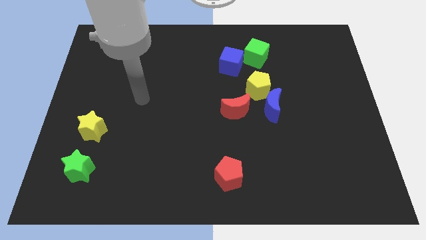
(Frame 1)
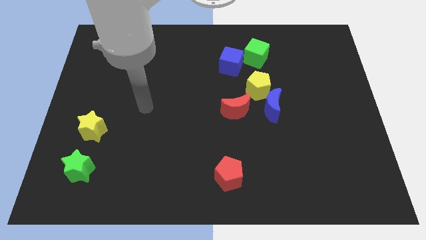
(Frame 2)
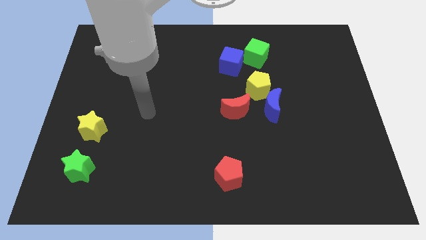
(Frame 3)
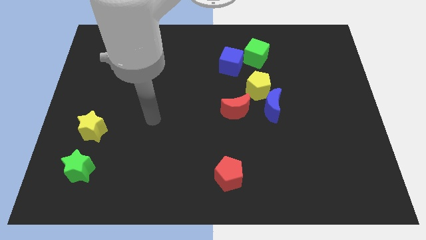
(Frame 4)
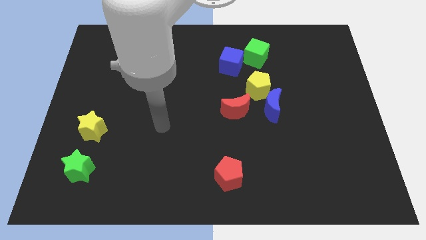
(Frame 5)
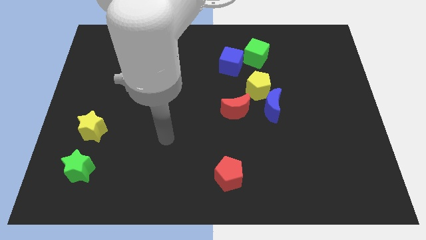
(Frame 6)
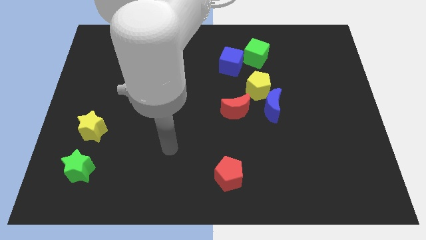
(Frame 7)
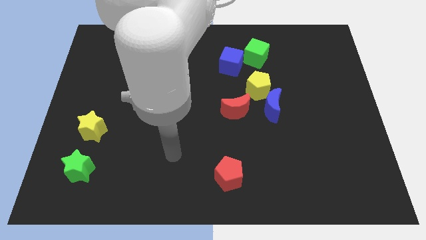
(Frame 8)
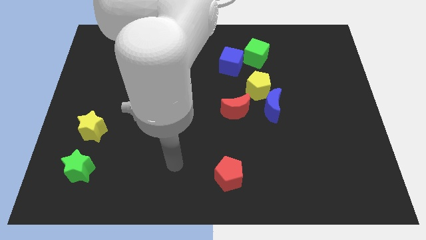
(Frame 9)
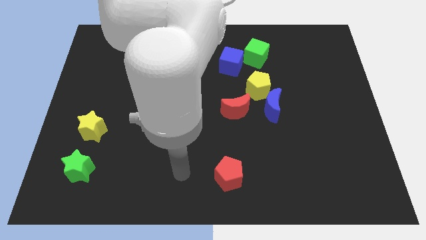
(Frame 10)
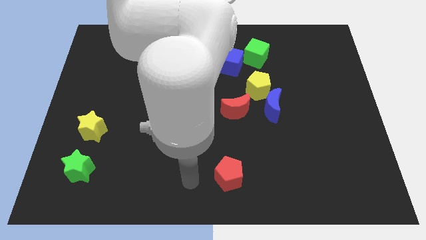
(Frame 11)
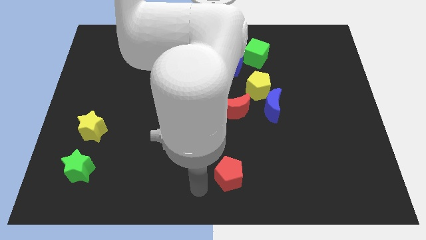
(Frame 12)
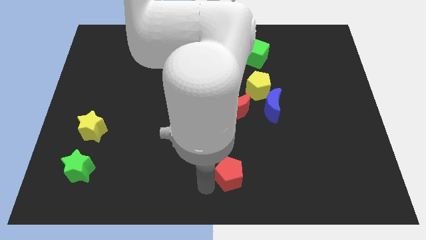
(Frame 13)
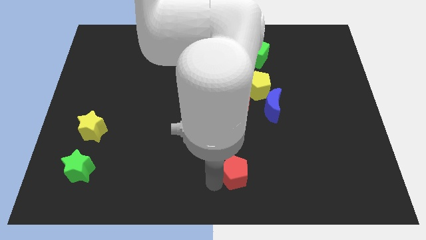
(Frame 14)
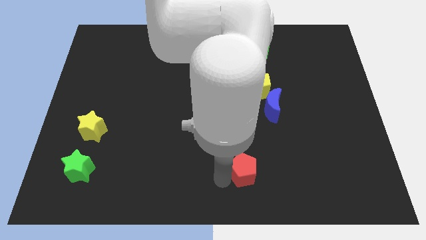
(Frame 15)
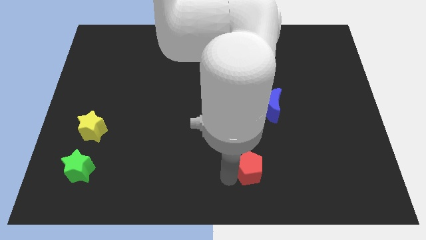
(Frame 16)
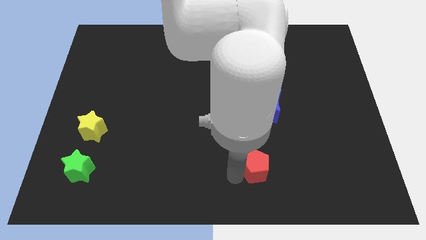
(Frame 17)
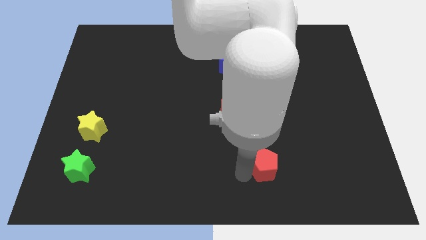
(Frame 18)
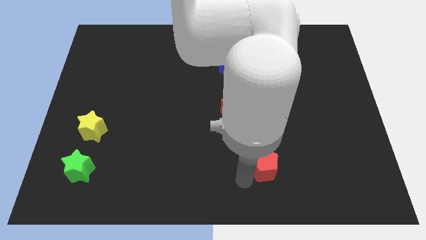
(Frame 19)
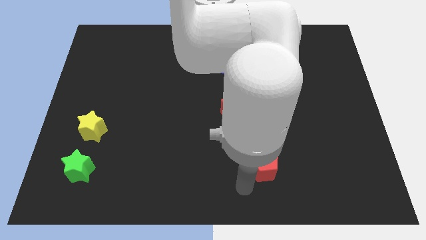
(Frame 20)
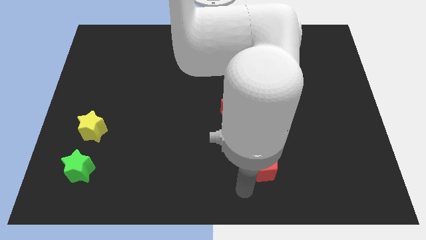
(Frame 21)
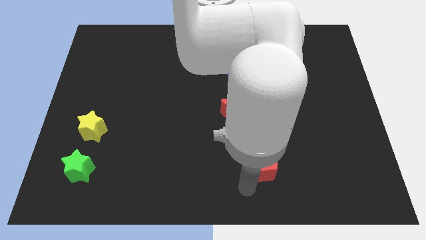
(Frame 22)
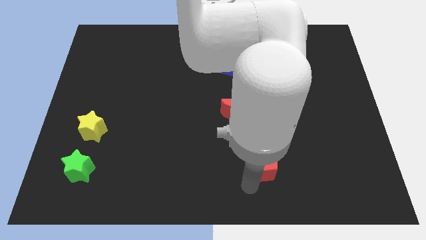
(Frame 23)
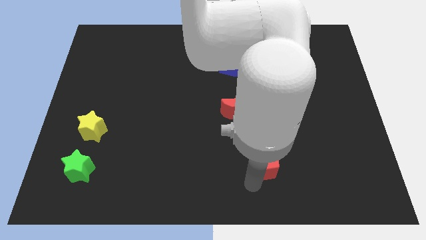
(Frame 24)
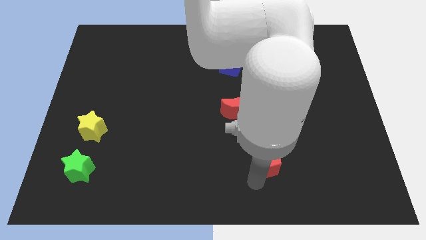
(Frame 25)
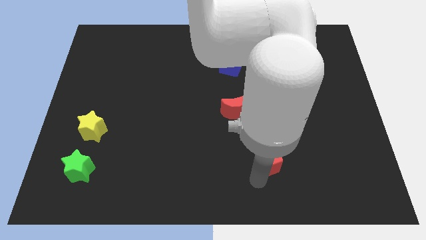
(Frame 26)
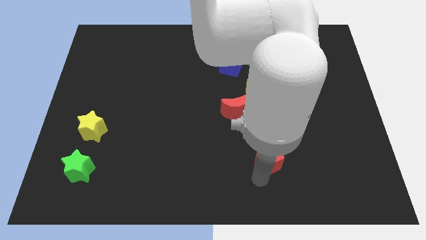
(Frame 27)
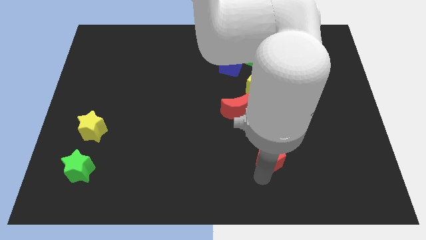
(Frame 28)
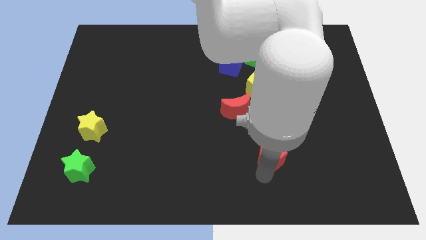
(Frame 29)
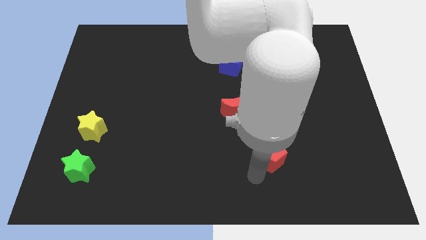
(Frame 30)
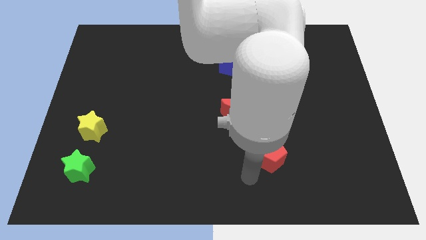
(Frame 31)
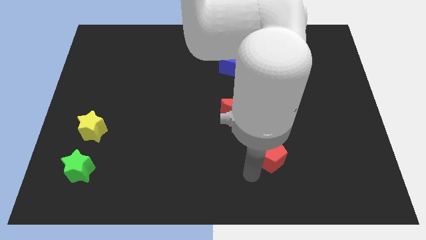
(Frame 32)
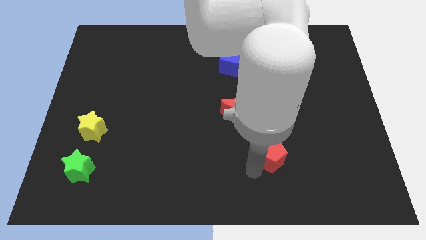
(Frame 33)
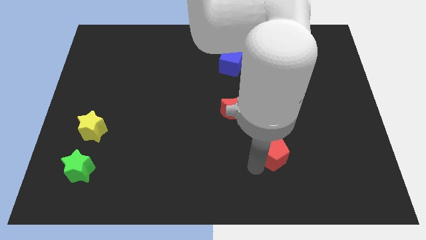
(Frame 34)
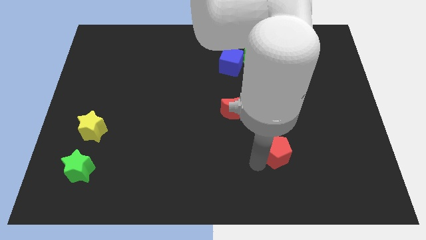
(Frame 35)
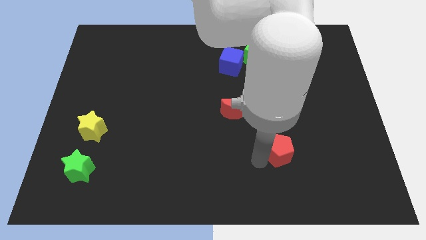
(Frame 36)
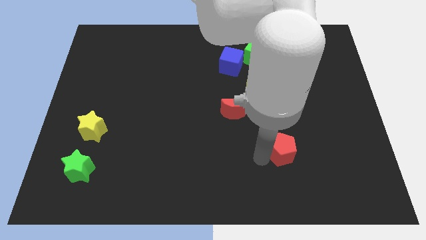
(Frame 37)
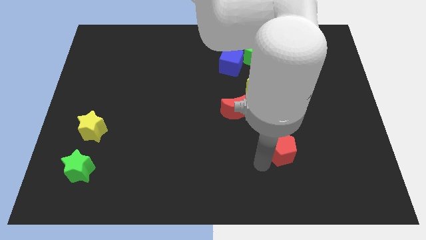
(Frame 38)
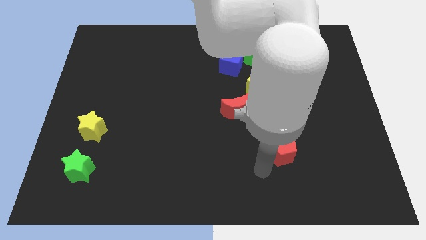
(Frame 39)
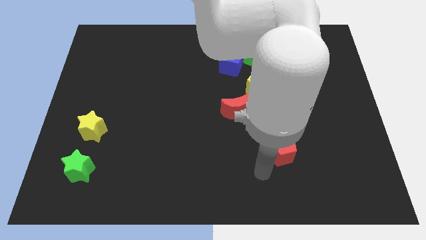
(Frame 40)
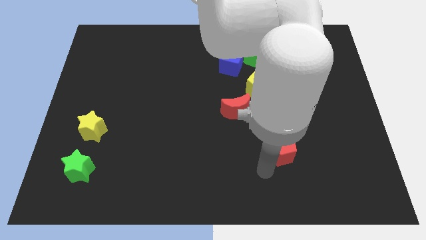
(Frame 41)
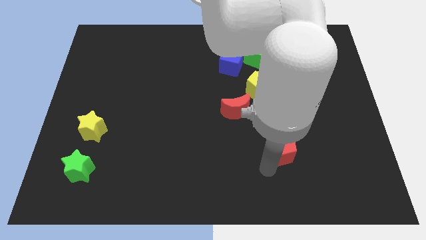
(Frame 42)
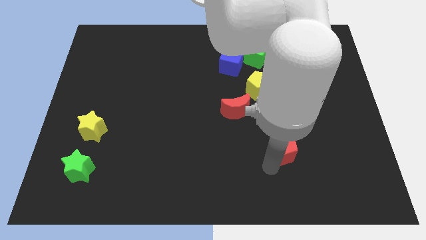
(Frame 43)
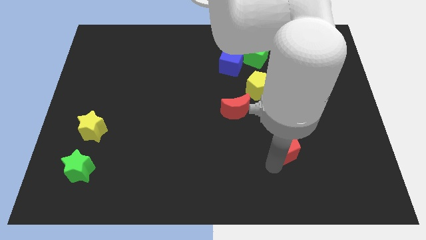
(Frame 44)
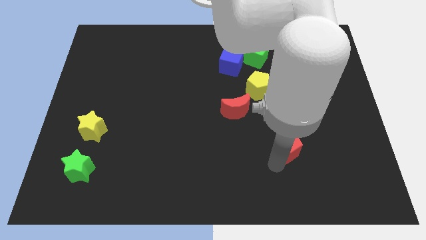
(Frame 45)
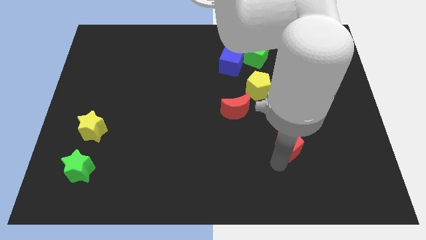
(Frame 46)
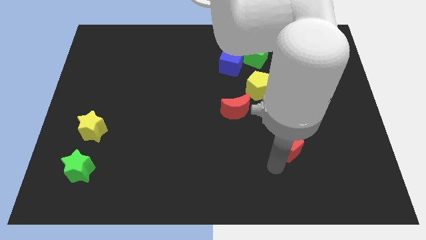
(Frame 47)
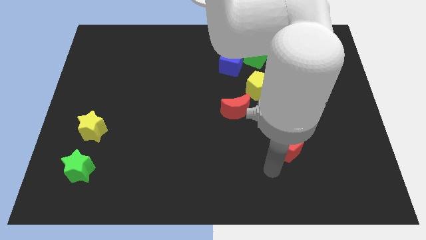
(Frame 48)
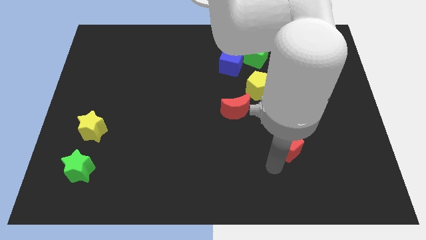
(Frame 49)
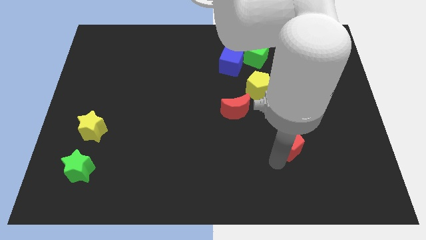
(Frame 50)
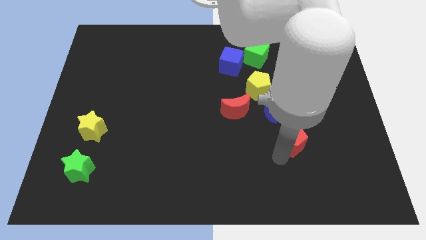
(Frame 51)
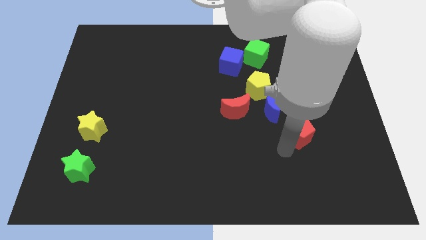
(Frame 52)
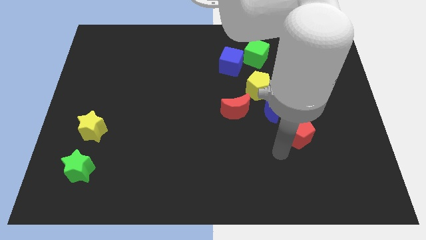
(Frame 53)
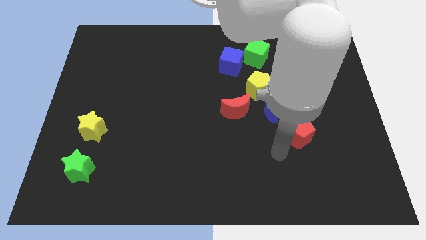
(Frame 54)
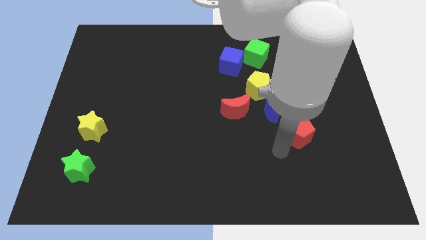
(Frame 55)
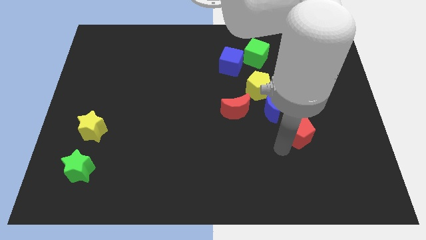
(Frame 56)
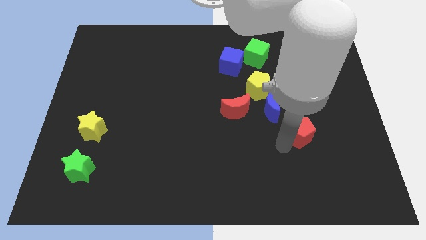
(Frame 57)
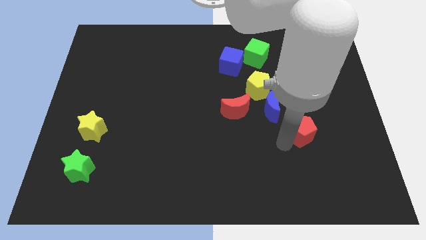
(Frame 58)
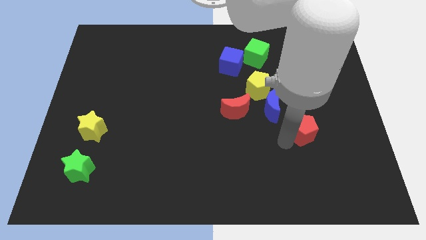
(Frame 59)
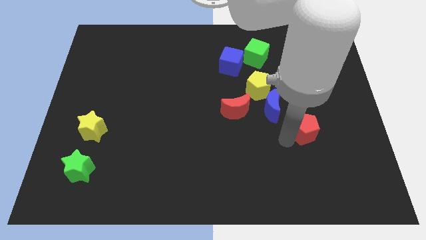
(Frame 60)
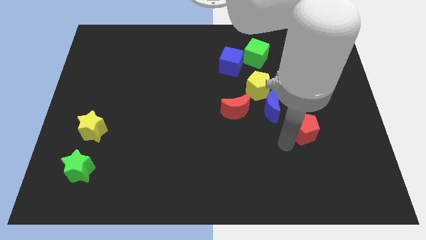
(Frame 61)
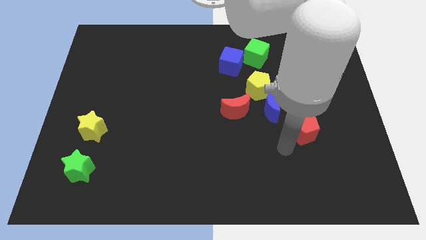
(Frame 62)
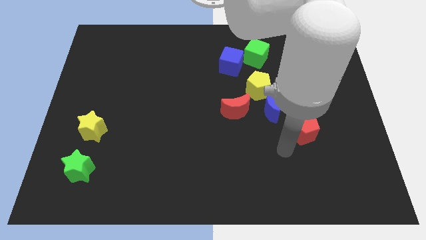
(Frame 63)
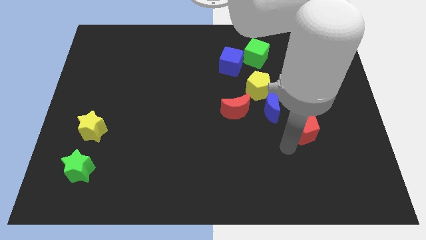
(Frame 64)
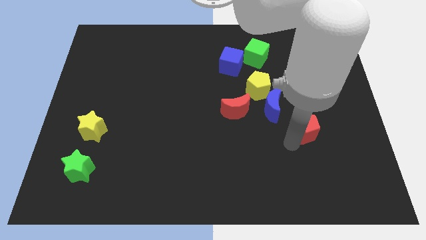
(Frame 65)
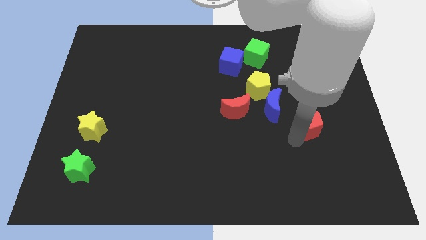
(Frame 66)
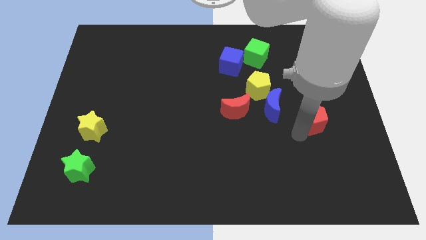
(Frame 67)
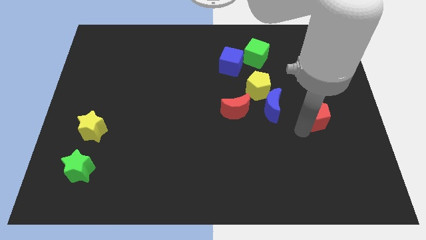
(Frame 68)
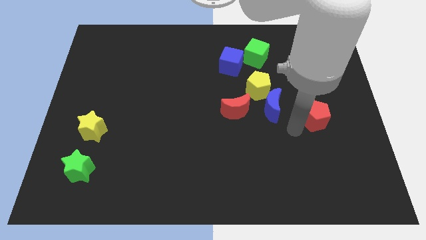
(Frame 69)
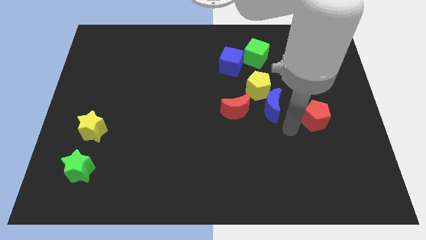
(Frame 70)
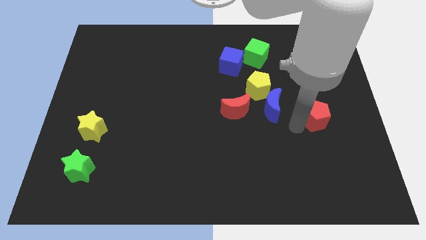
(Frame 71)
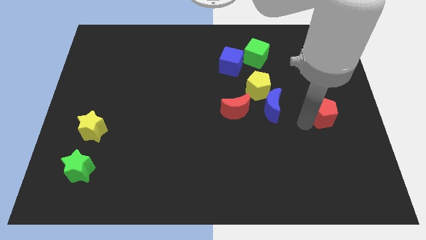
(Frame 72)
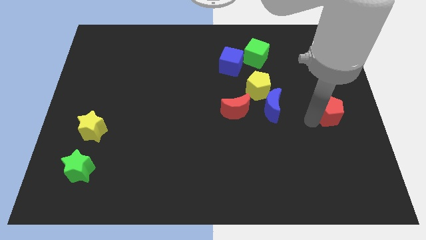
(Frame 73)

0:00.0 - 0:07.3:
put the red pentagon to the right side
